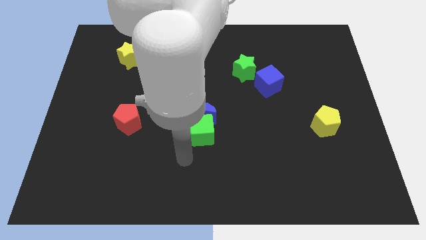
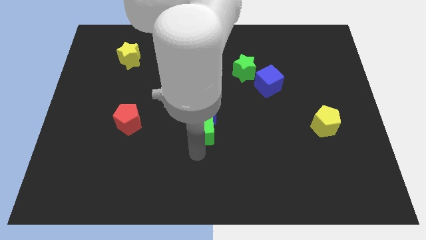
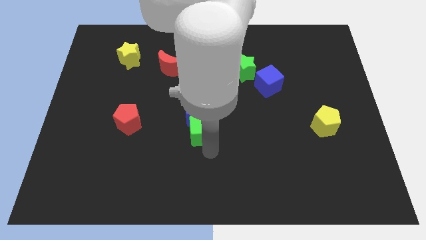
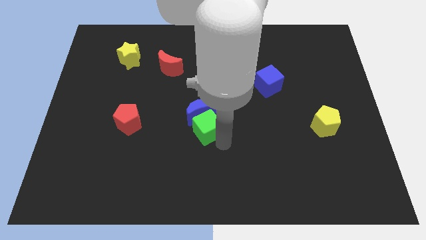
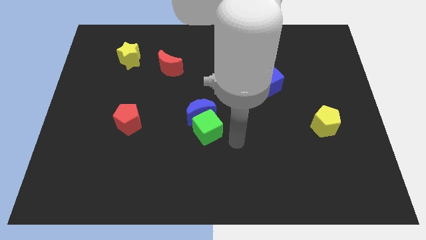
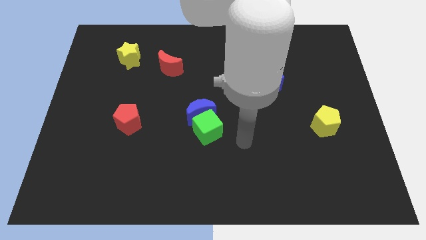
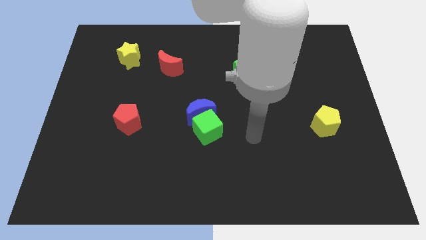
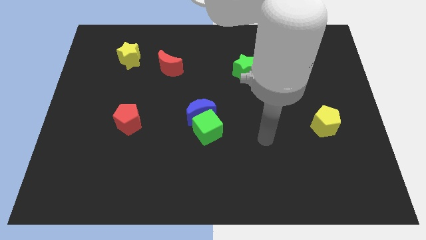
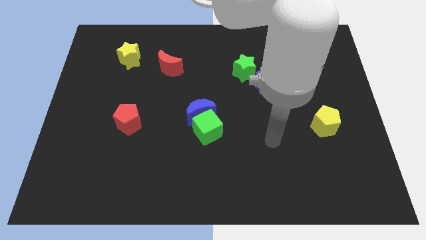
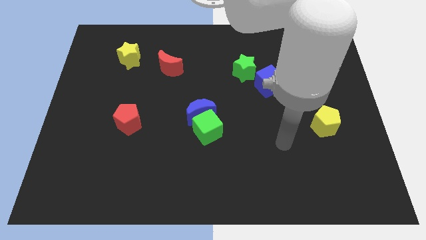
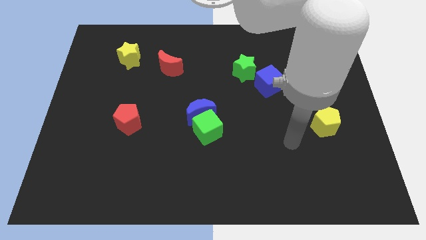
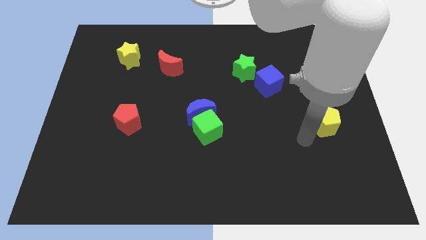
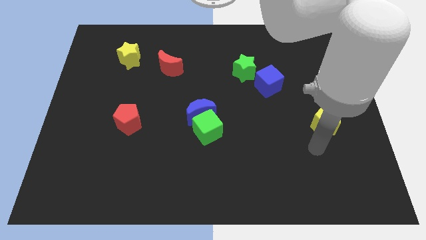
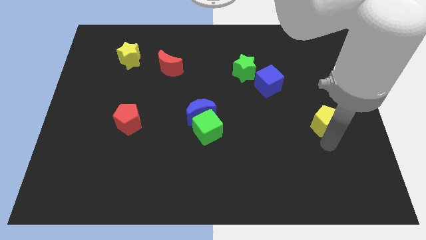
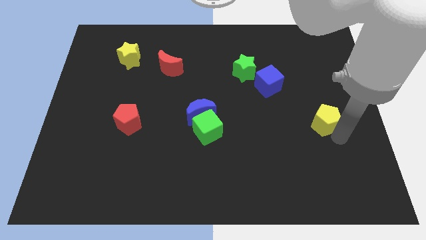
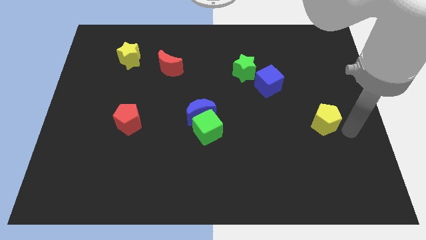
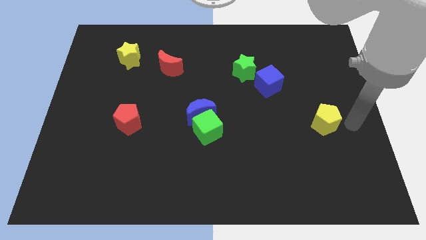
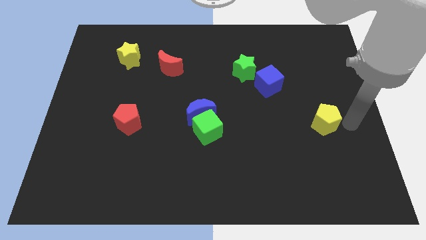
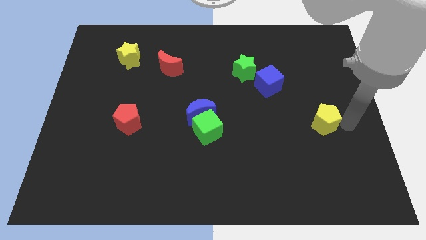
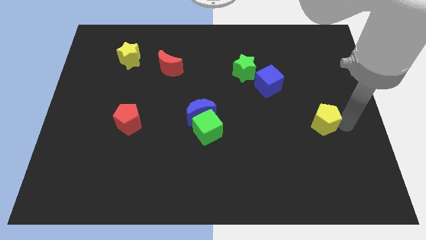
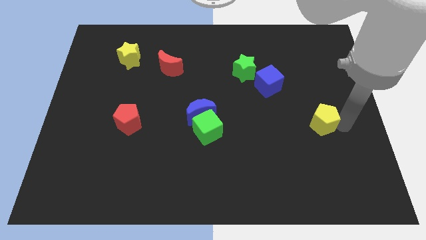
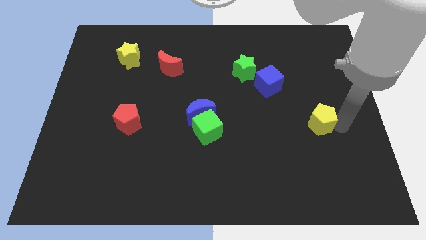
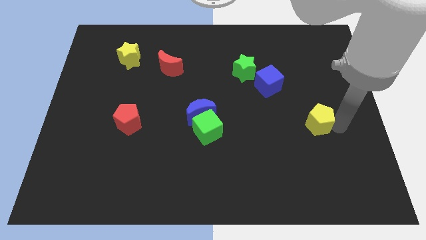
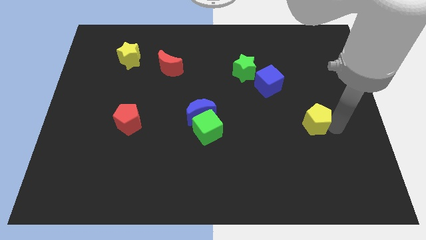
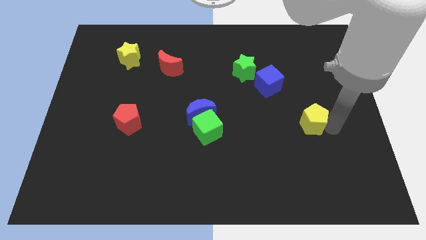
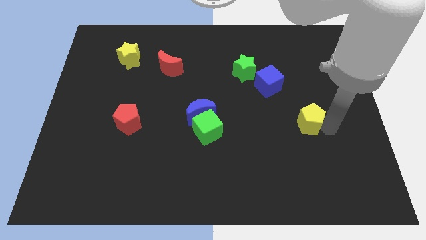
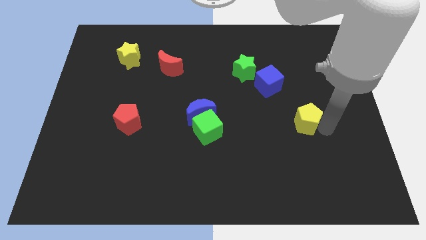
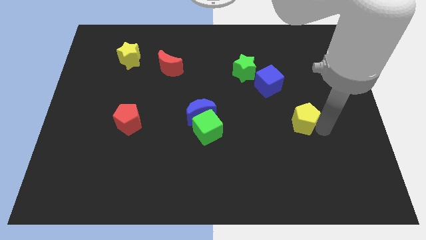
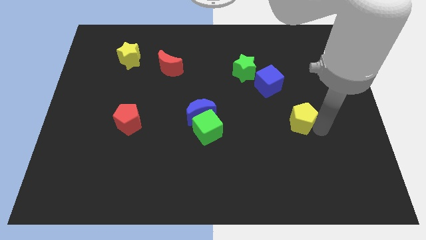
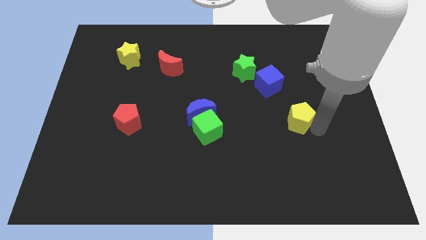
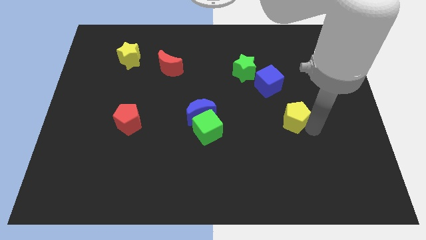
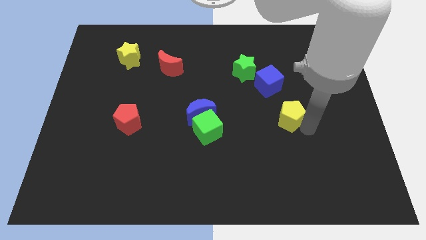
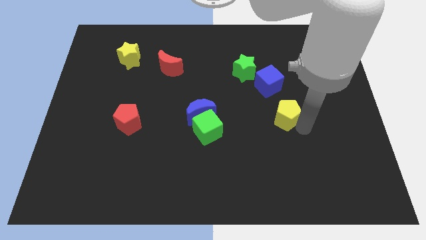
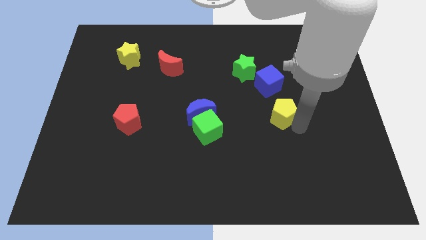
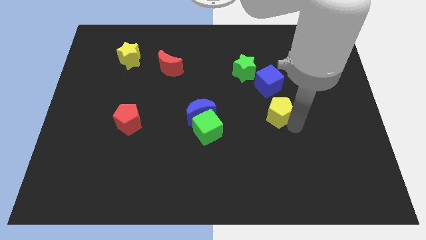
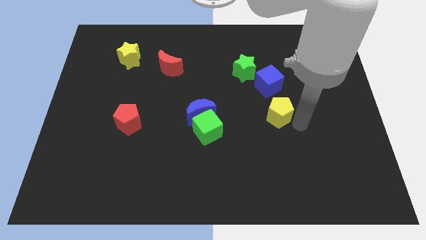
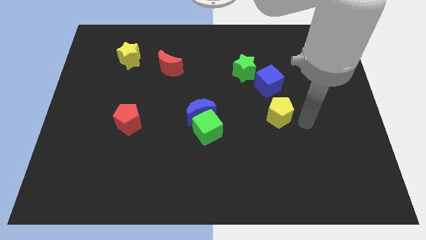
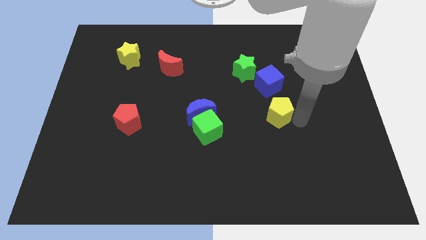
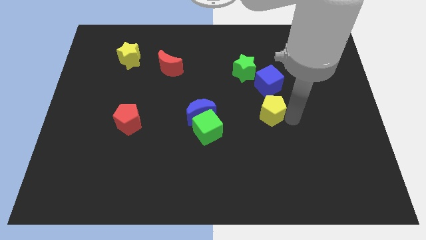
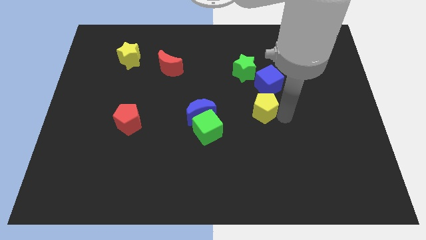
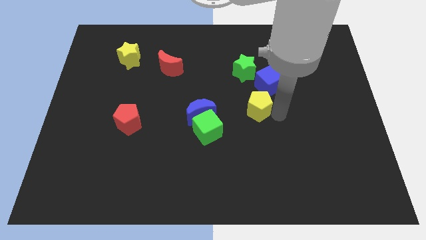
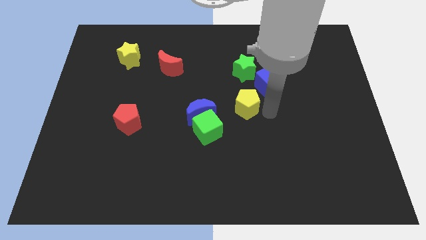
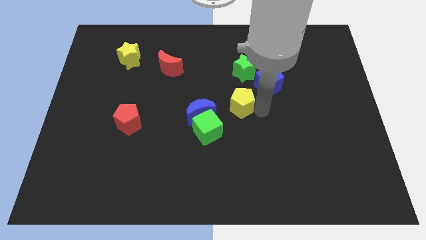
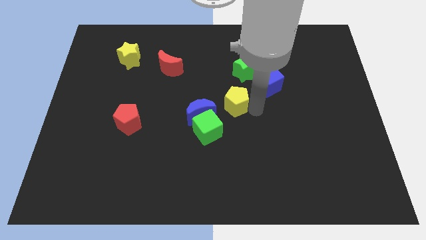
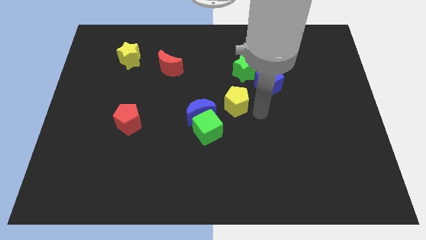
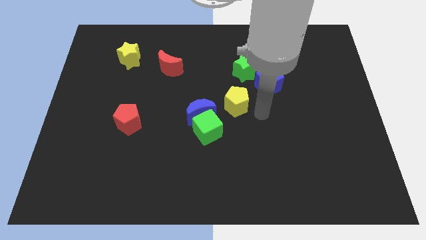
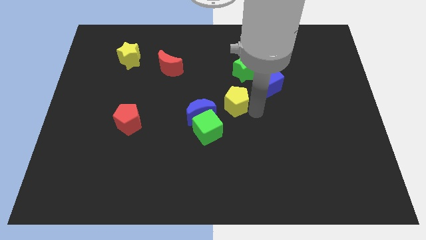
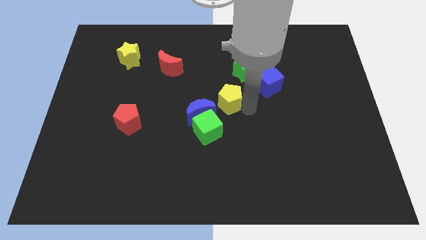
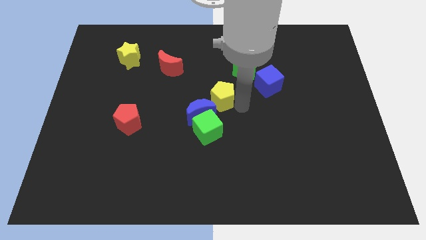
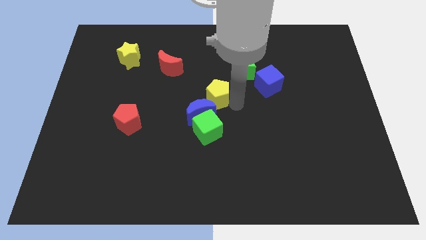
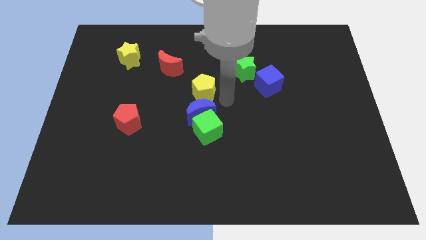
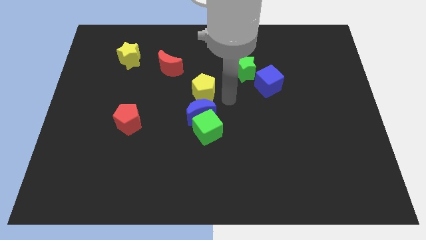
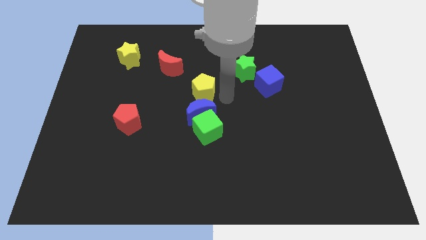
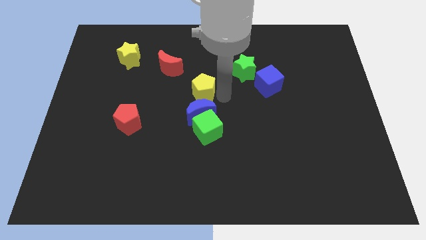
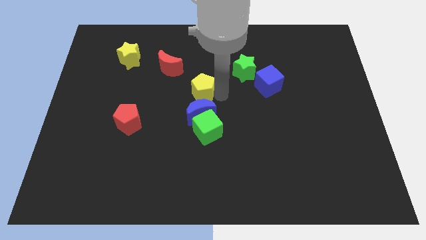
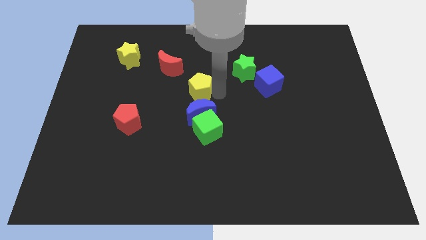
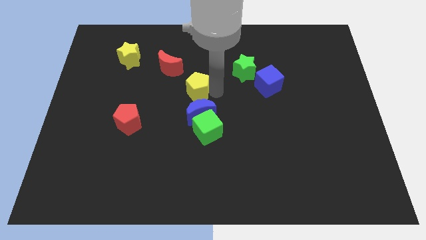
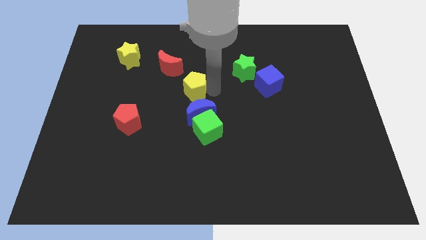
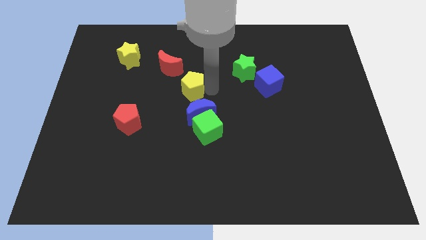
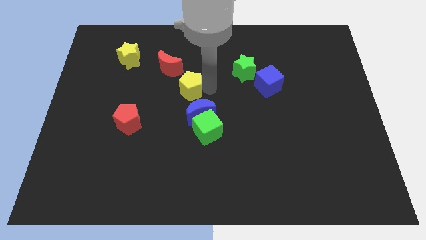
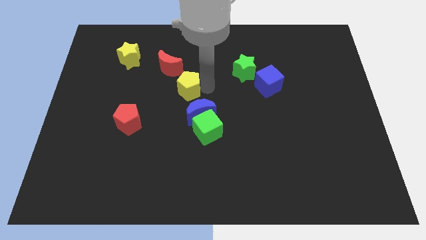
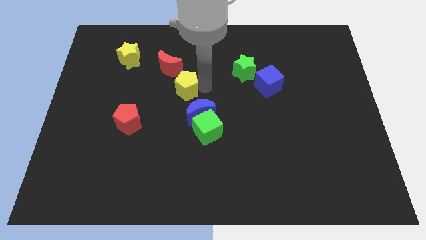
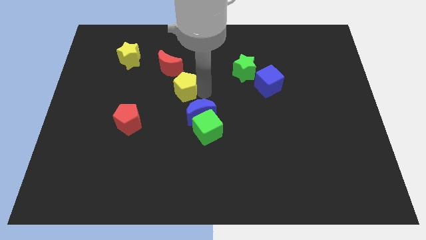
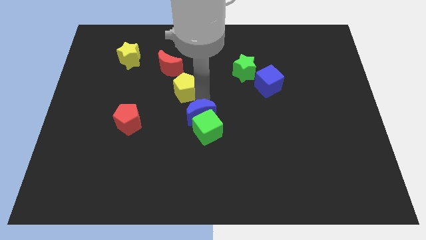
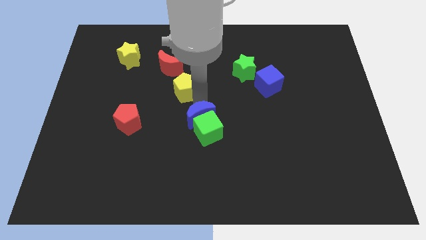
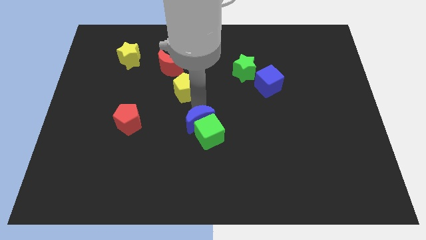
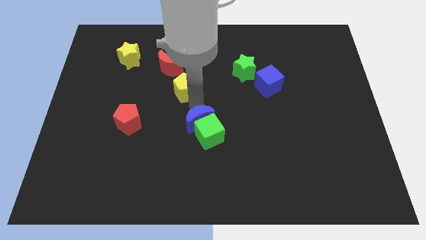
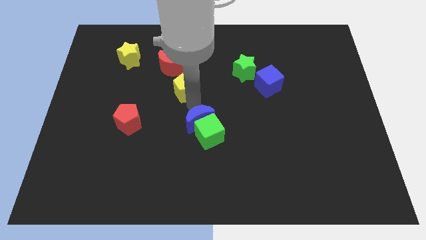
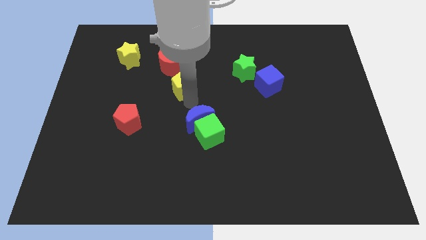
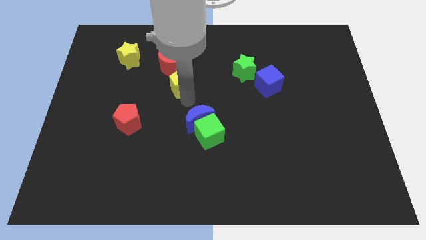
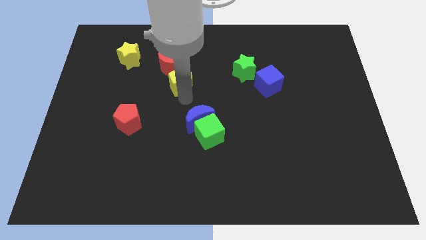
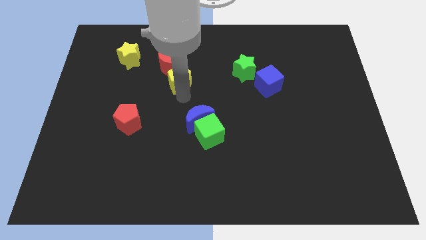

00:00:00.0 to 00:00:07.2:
put the yellow pentagon towards the red moon
